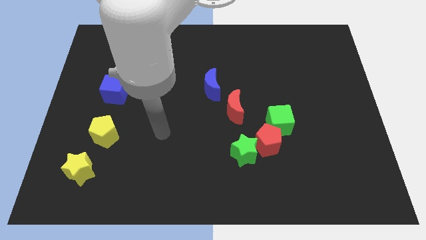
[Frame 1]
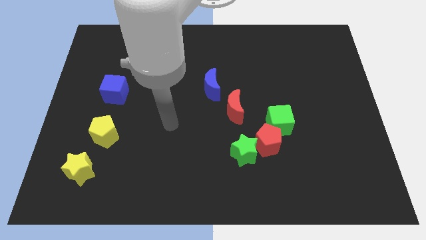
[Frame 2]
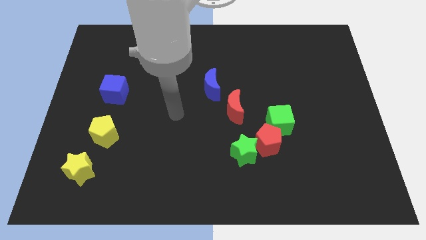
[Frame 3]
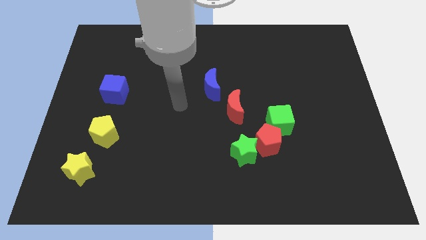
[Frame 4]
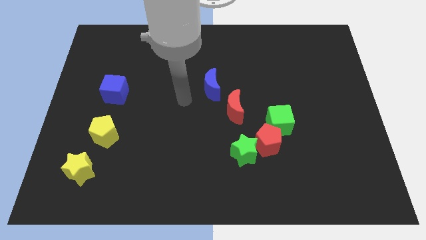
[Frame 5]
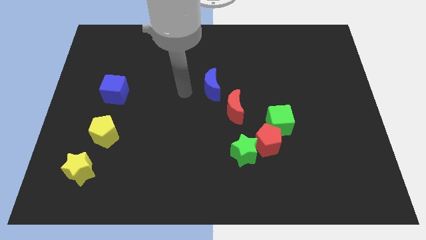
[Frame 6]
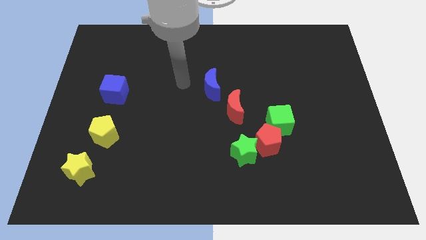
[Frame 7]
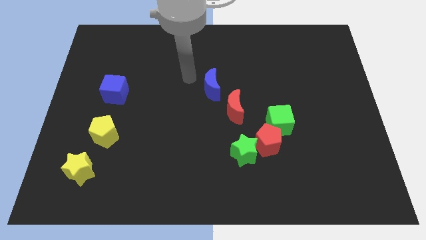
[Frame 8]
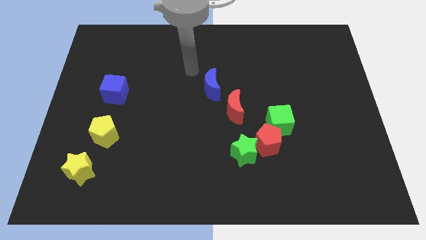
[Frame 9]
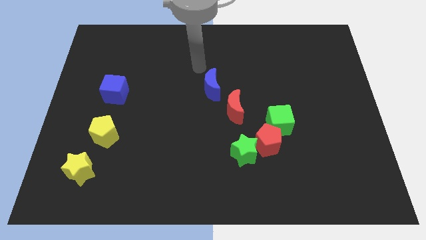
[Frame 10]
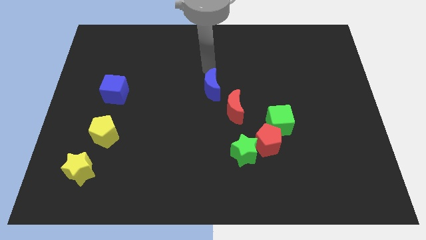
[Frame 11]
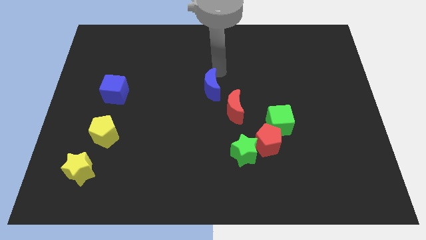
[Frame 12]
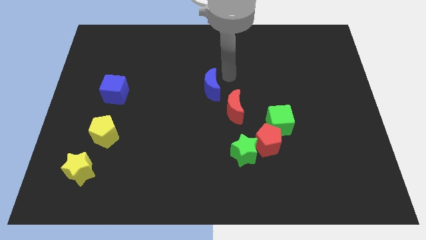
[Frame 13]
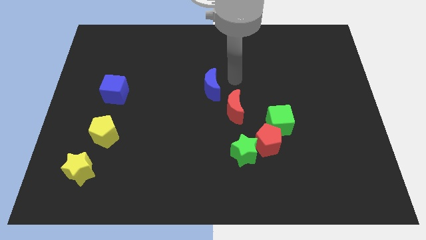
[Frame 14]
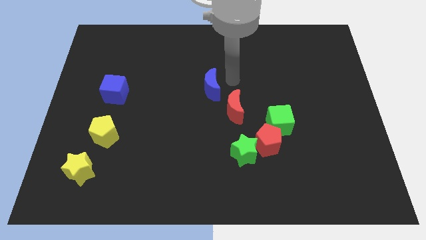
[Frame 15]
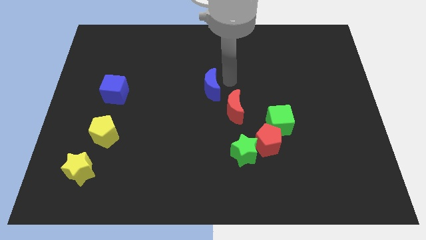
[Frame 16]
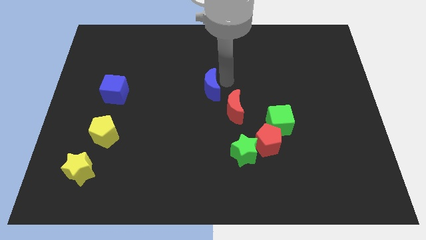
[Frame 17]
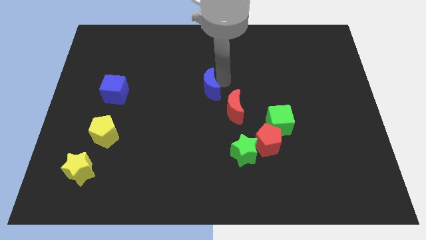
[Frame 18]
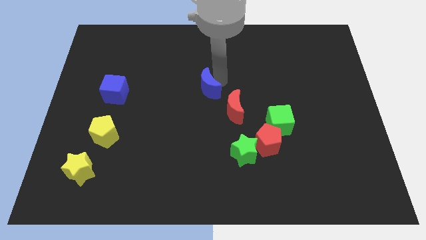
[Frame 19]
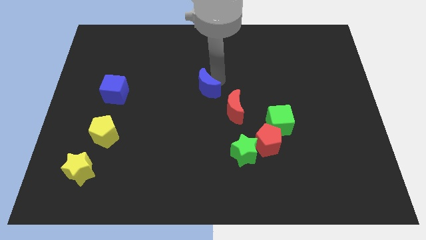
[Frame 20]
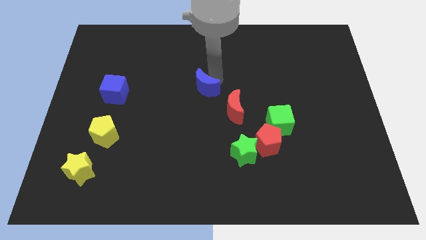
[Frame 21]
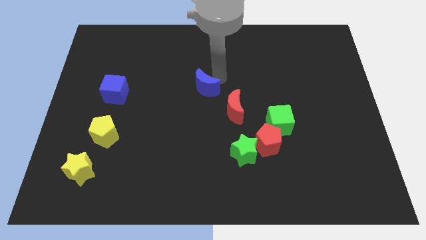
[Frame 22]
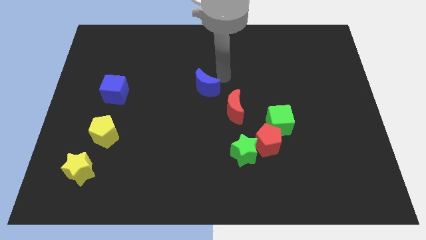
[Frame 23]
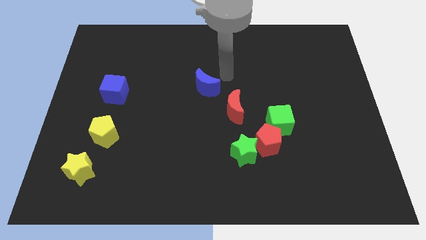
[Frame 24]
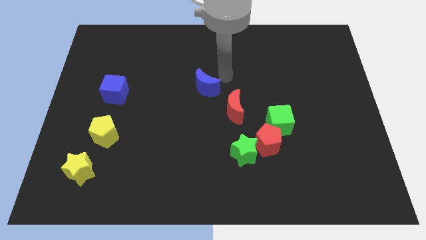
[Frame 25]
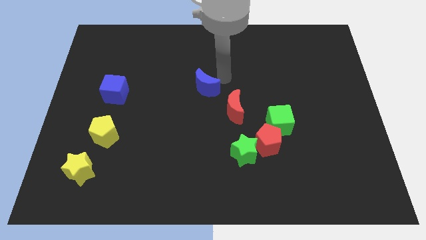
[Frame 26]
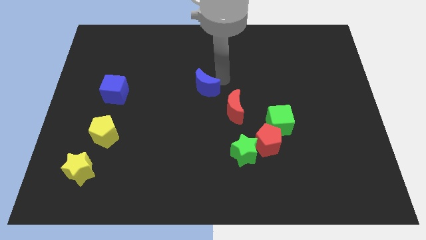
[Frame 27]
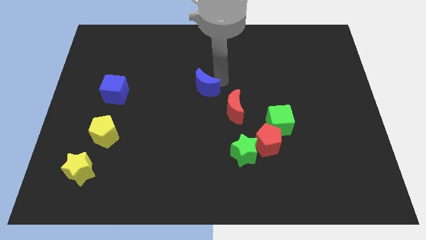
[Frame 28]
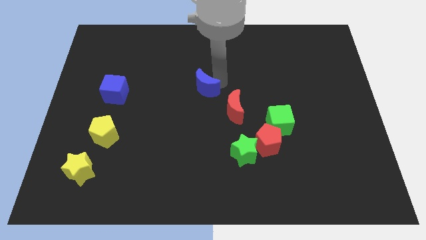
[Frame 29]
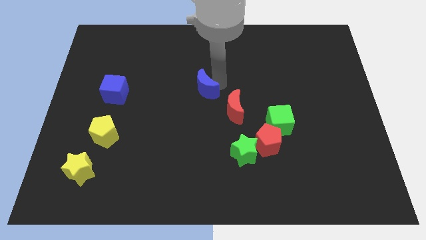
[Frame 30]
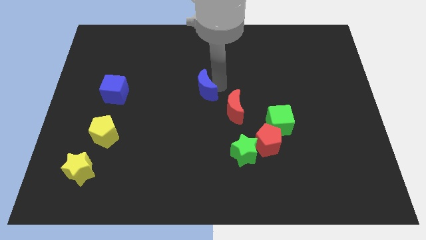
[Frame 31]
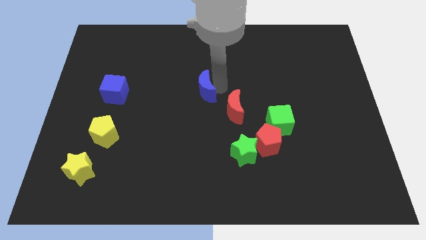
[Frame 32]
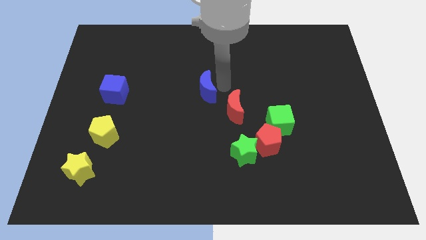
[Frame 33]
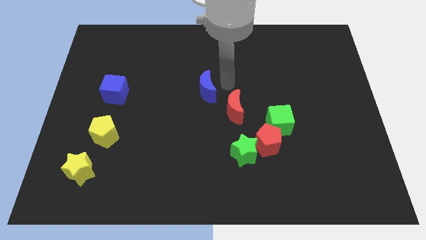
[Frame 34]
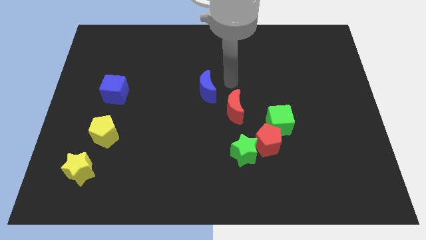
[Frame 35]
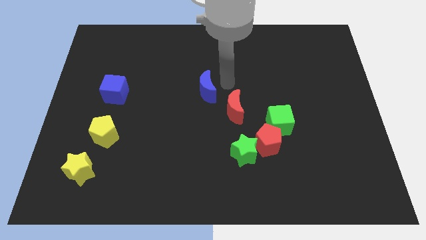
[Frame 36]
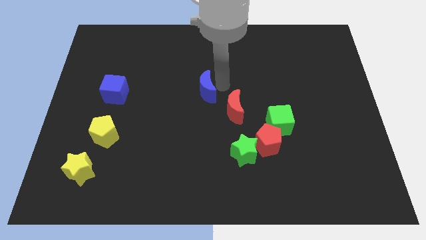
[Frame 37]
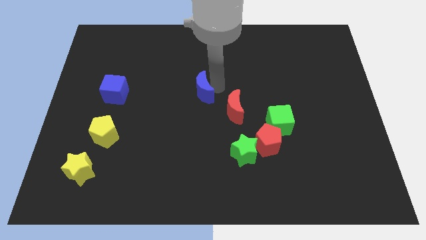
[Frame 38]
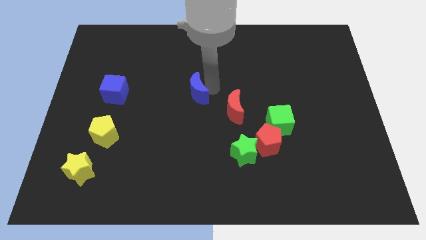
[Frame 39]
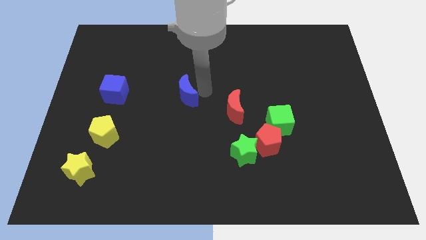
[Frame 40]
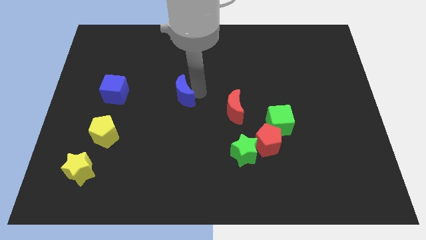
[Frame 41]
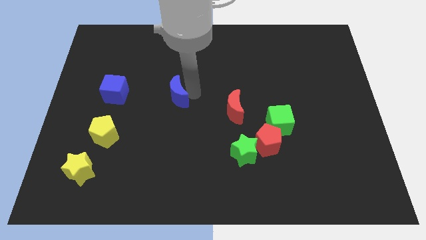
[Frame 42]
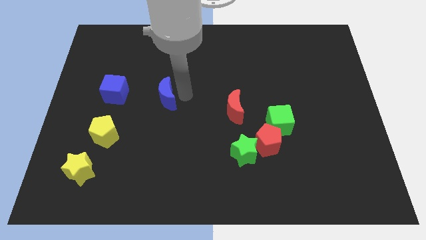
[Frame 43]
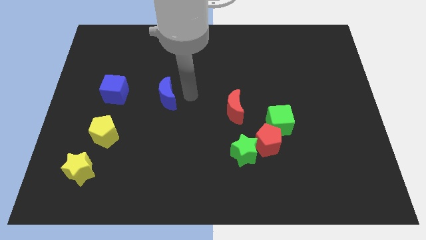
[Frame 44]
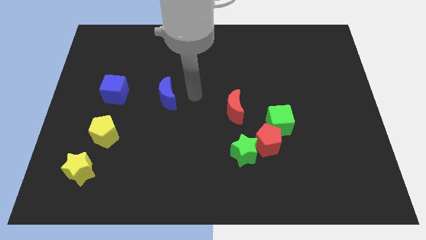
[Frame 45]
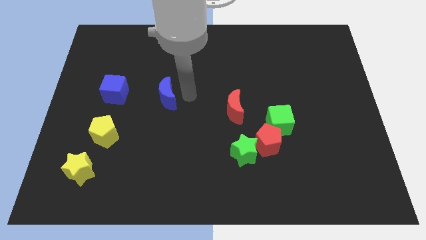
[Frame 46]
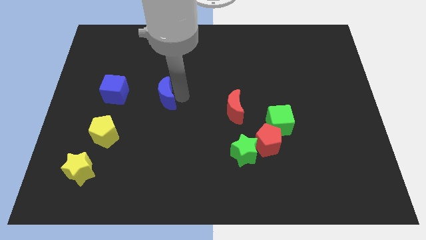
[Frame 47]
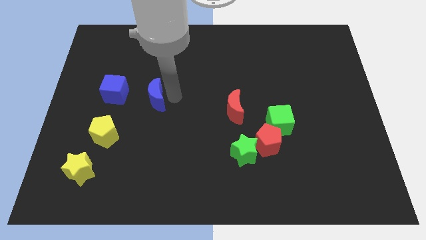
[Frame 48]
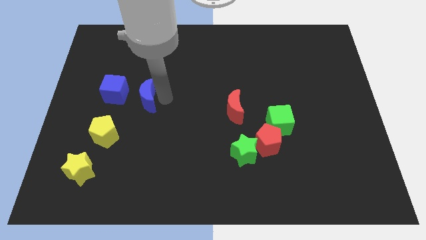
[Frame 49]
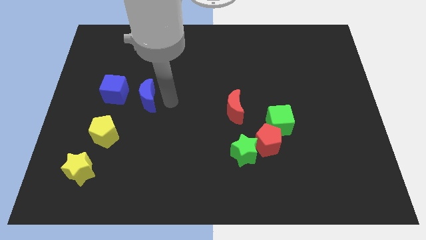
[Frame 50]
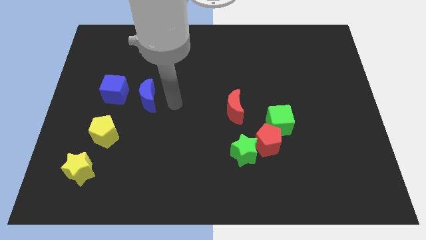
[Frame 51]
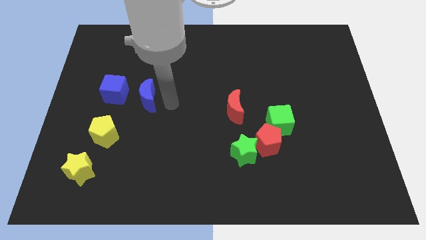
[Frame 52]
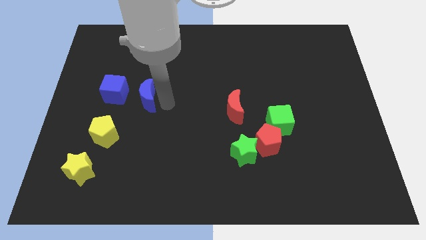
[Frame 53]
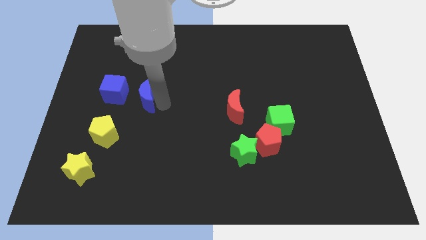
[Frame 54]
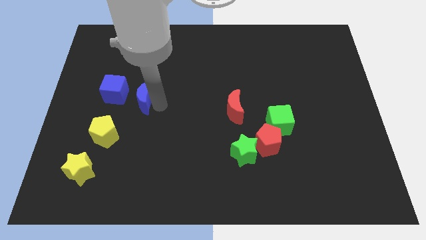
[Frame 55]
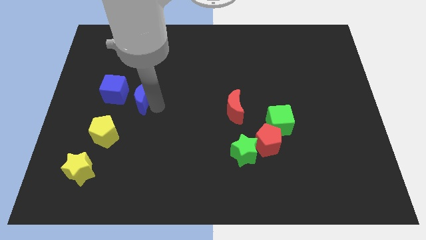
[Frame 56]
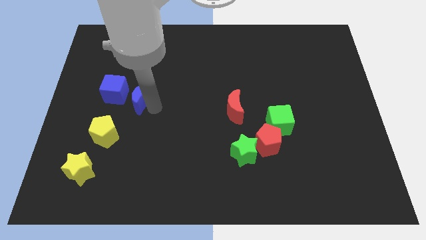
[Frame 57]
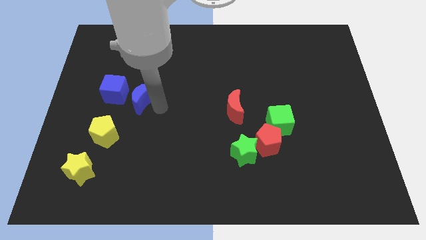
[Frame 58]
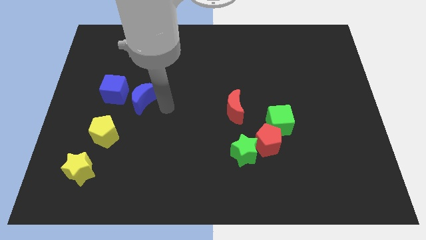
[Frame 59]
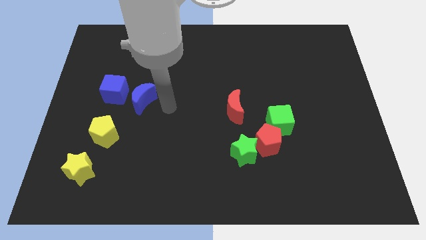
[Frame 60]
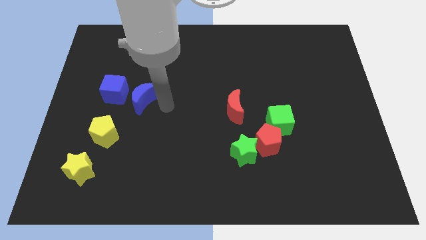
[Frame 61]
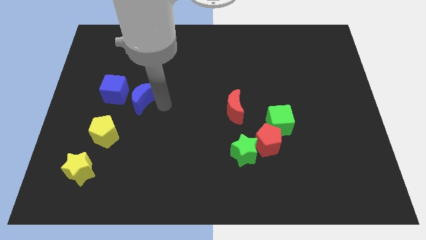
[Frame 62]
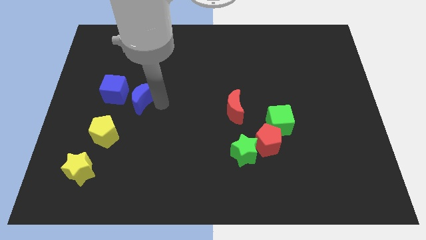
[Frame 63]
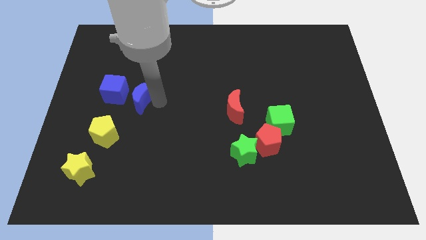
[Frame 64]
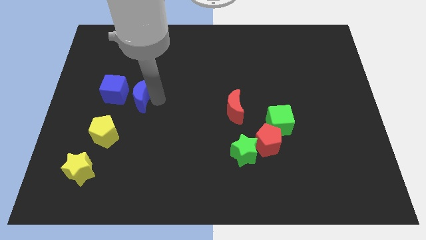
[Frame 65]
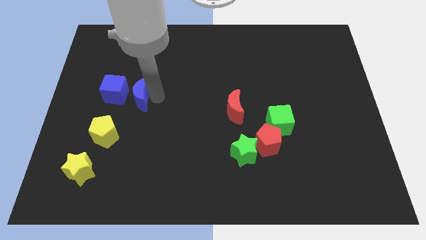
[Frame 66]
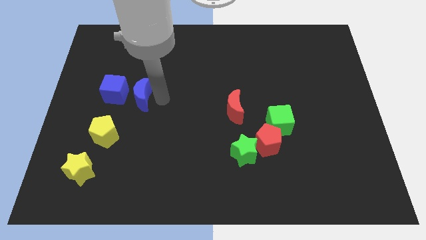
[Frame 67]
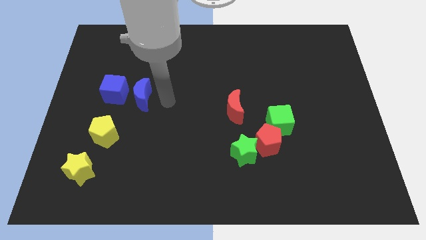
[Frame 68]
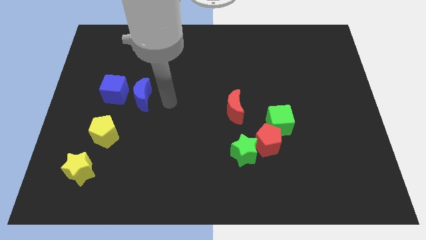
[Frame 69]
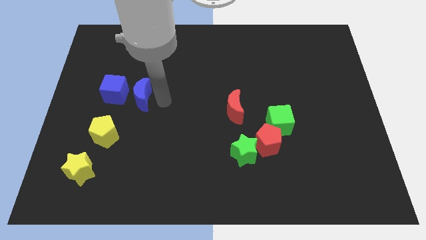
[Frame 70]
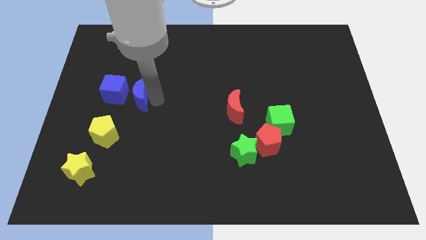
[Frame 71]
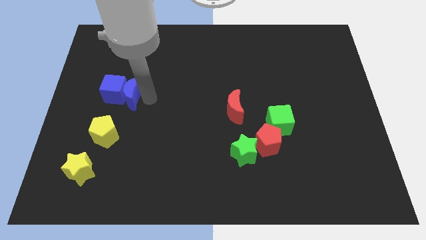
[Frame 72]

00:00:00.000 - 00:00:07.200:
push the blue moon next to the blue cube
